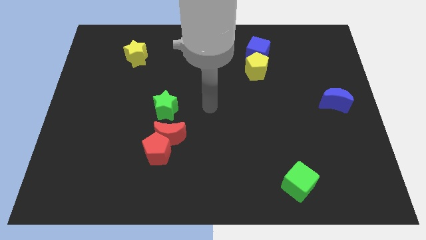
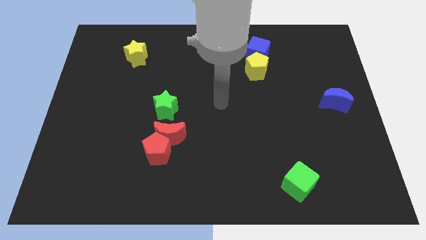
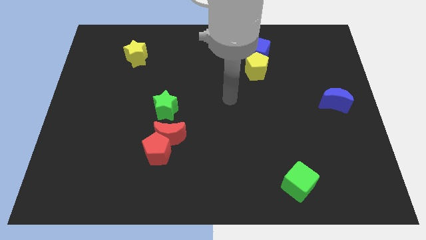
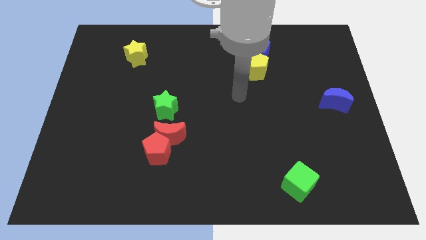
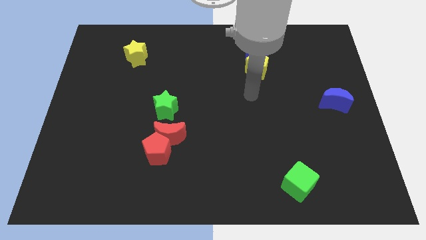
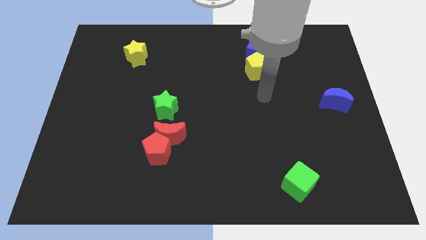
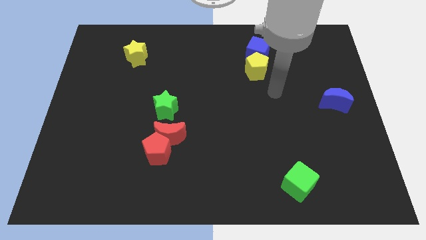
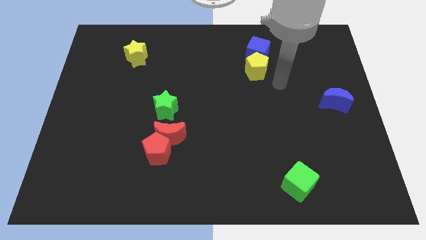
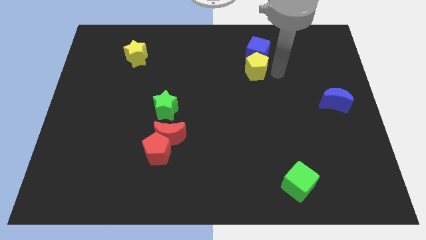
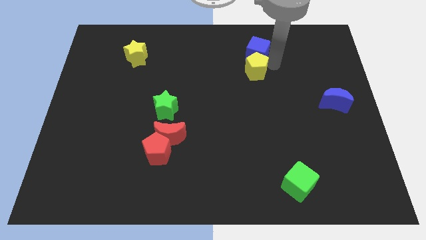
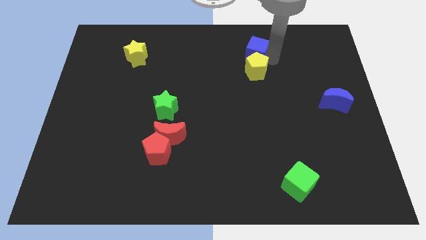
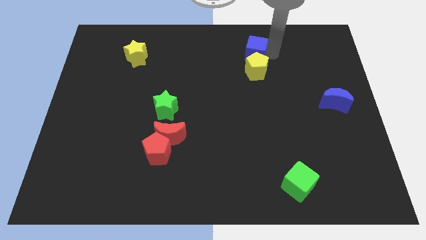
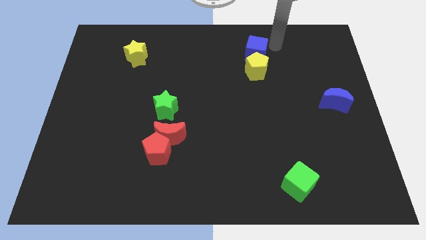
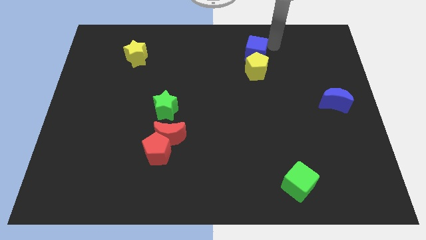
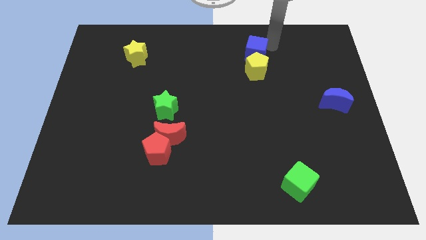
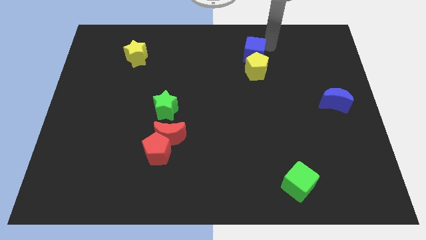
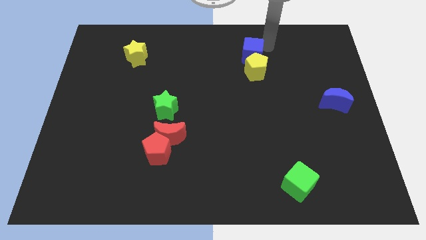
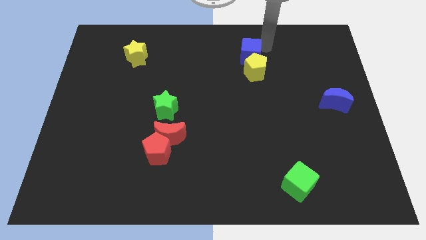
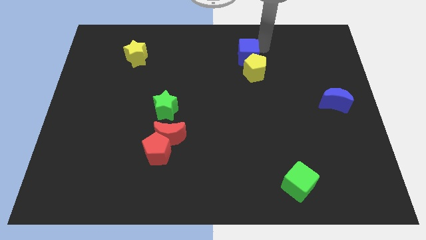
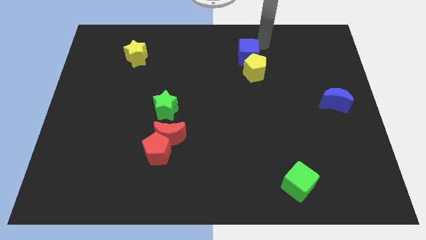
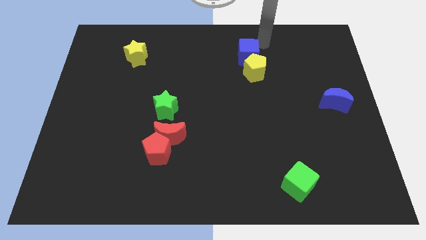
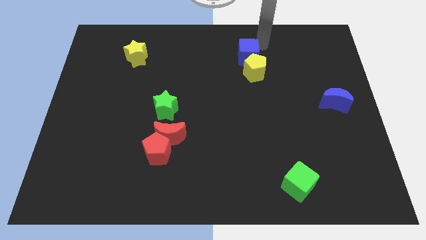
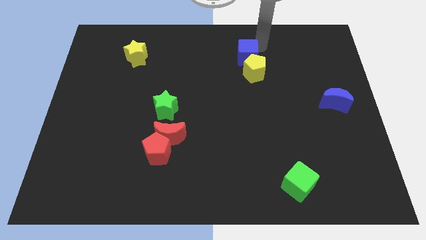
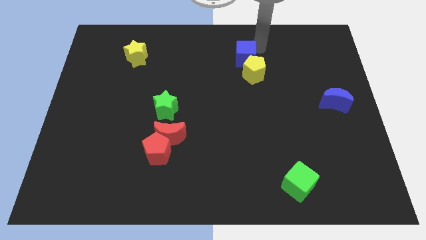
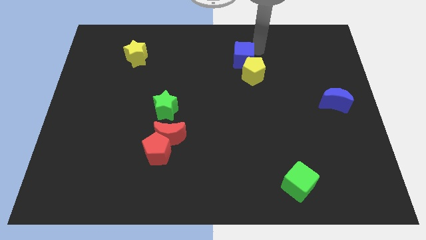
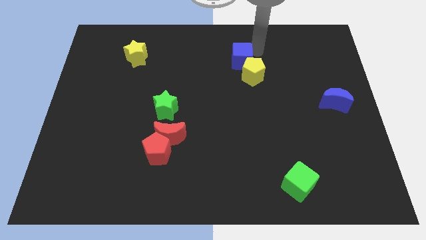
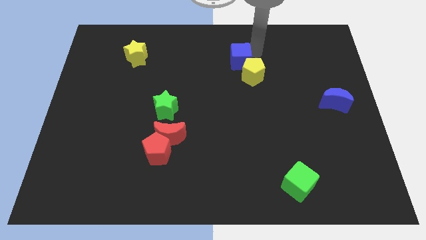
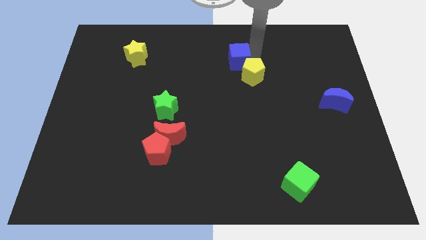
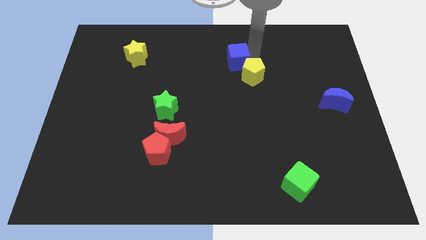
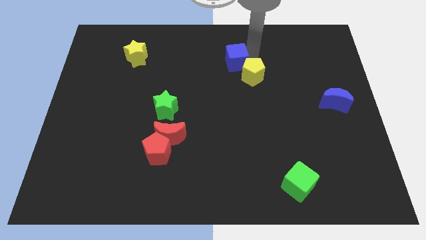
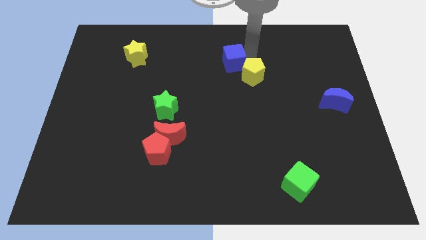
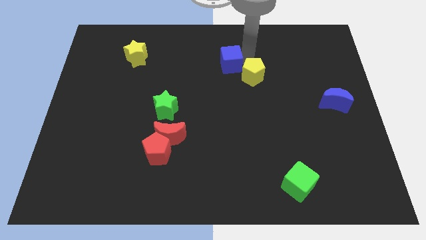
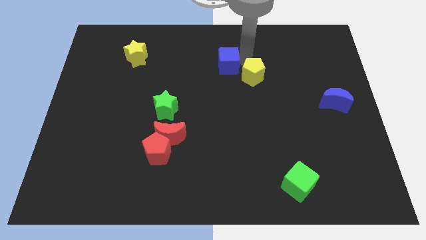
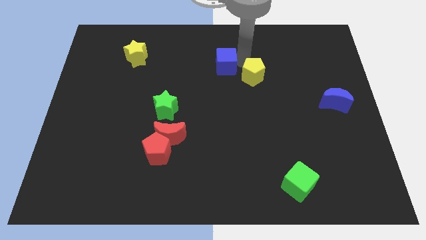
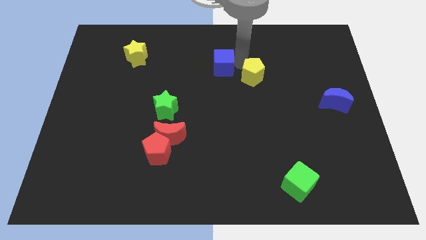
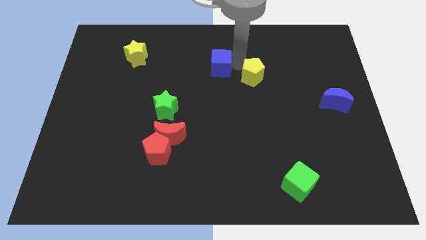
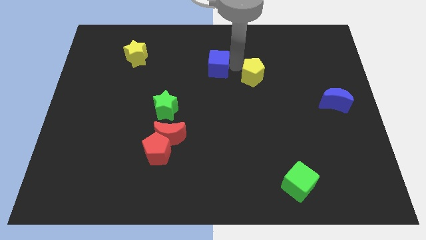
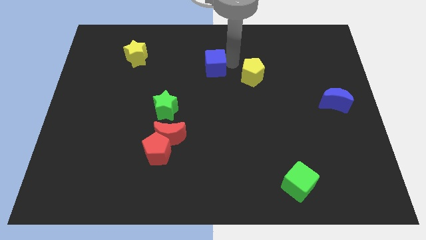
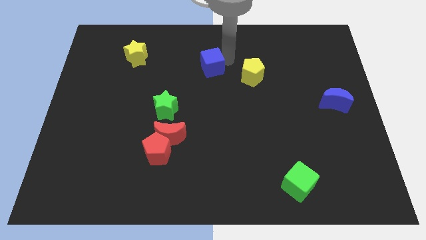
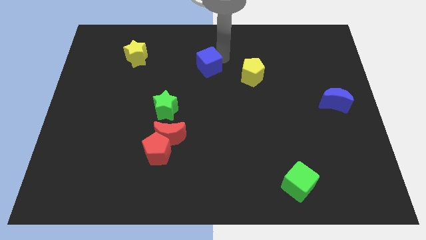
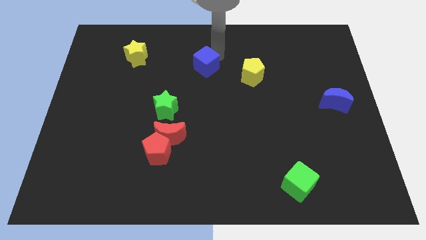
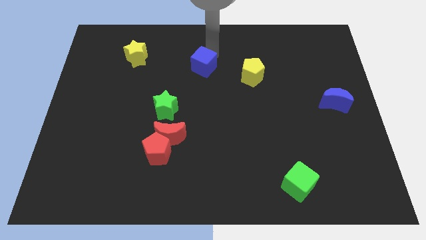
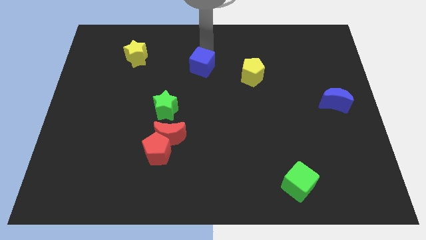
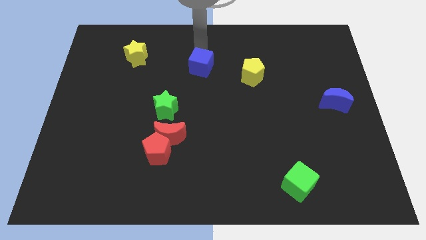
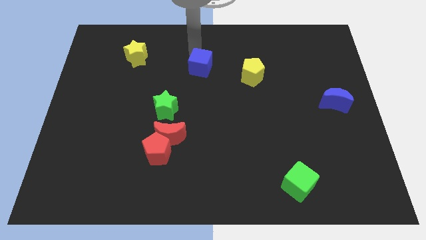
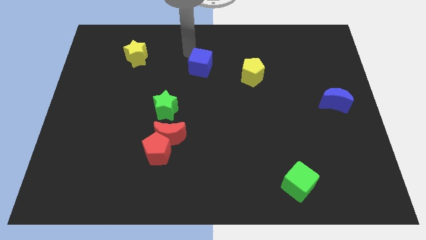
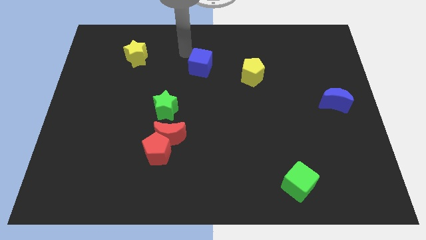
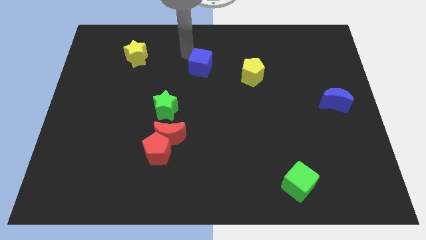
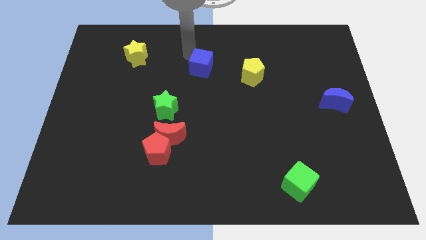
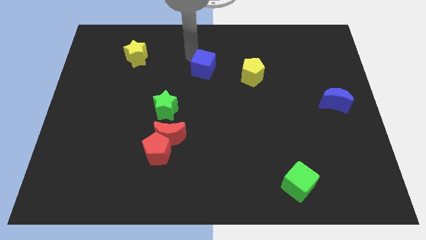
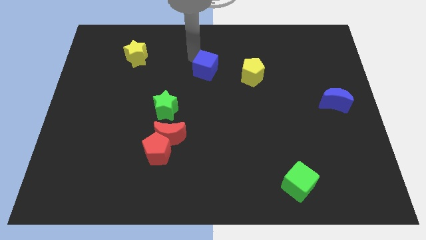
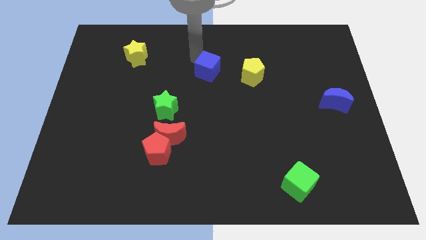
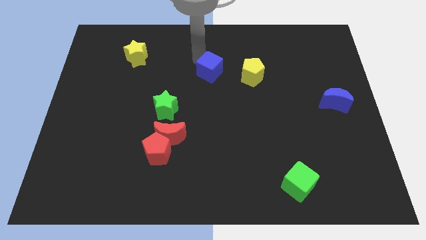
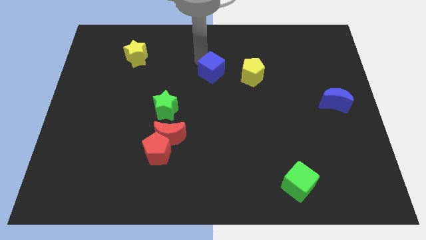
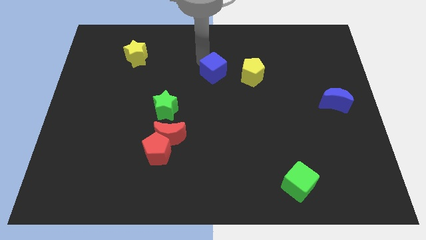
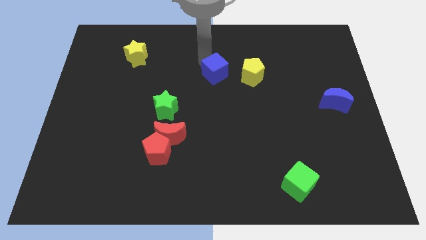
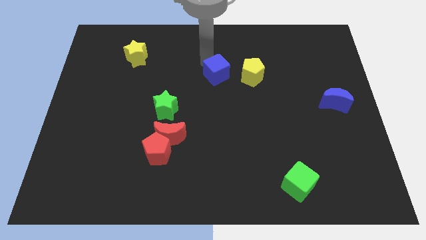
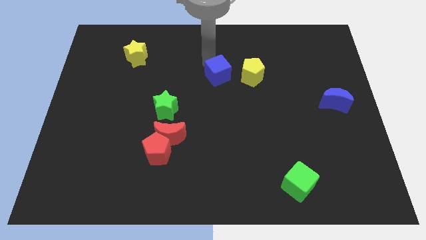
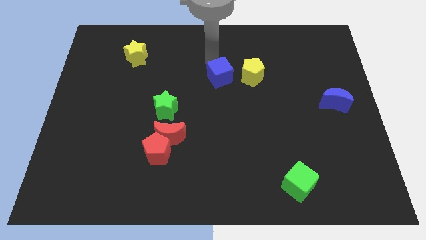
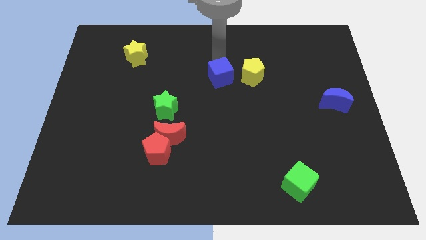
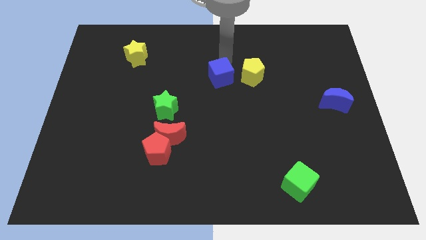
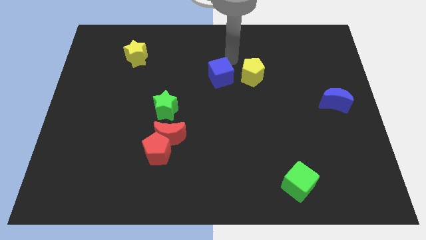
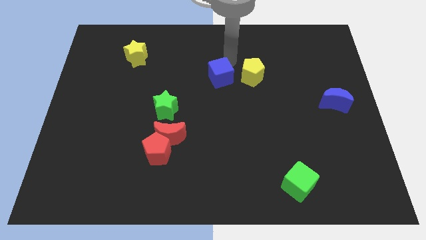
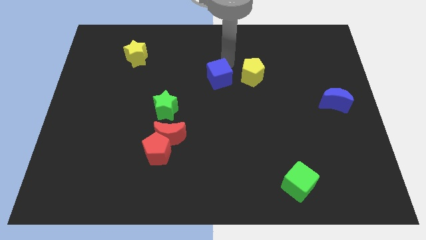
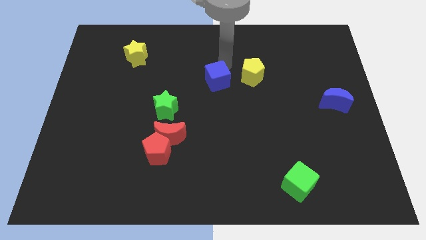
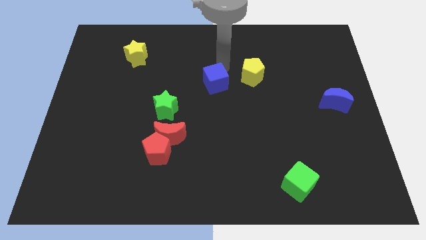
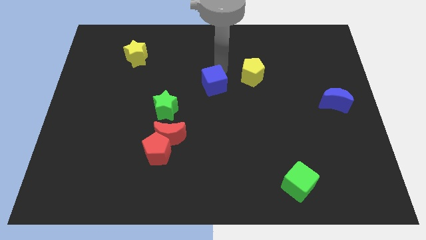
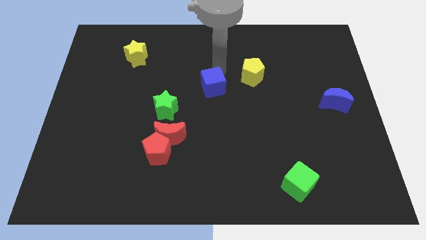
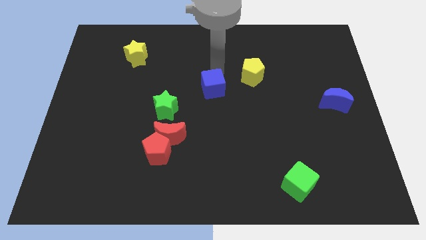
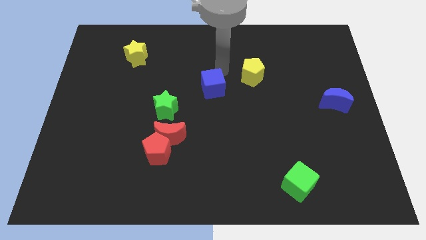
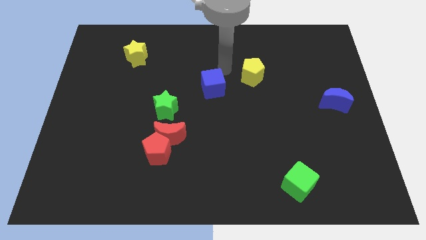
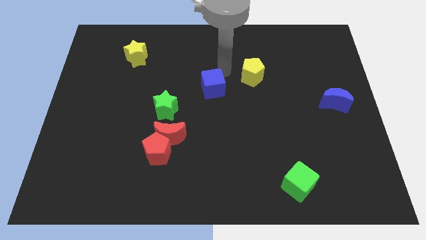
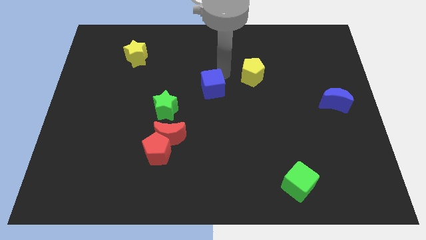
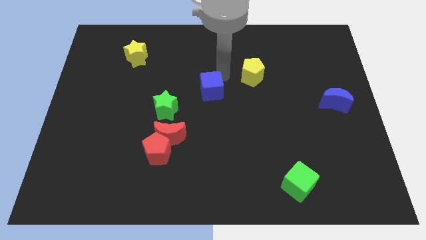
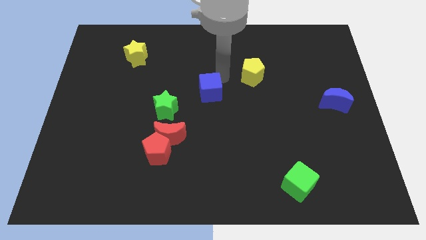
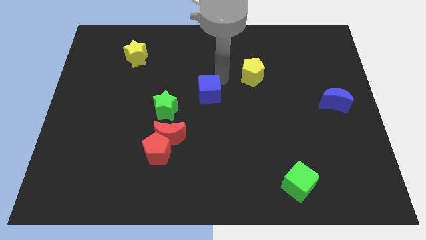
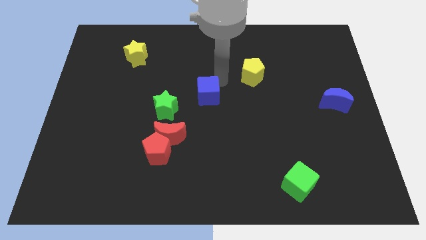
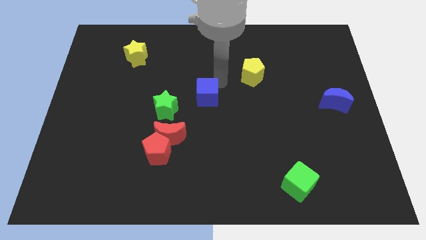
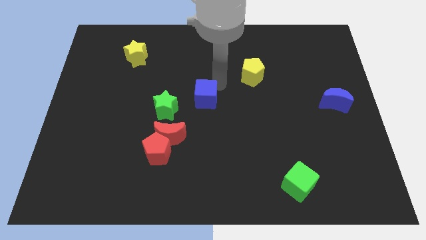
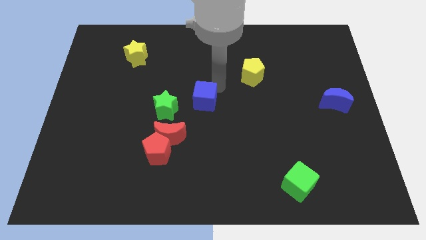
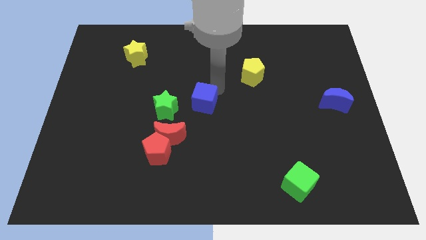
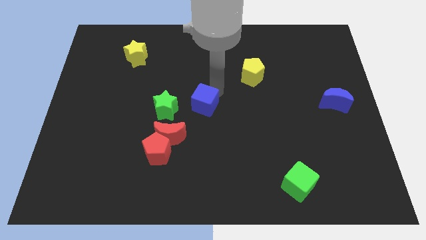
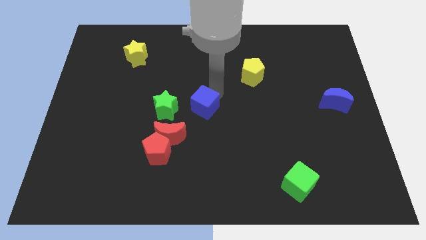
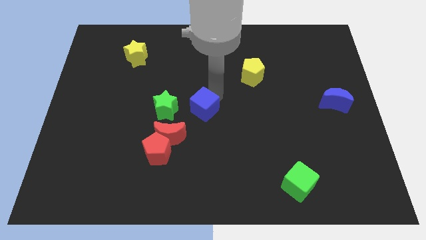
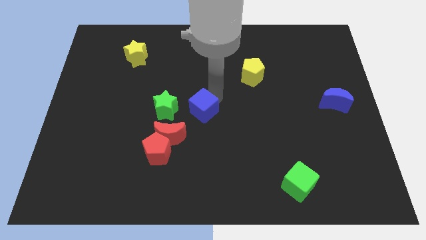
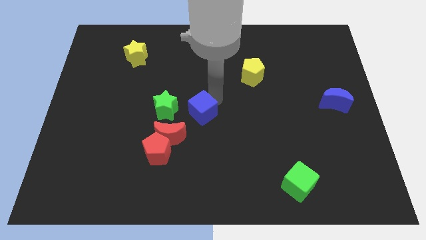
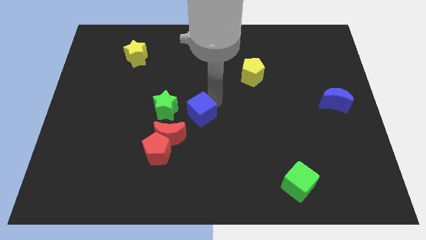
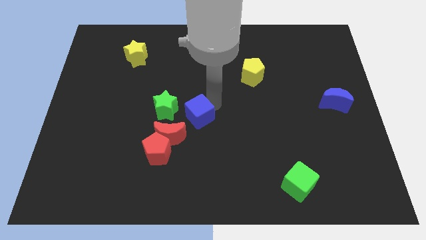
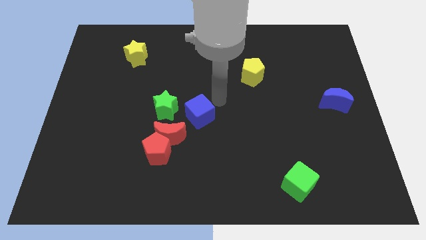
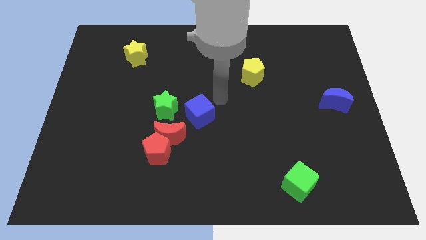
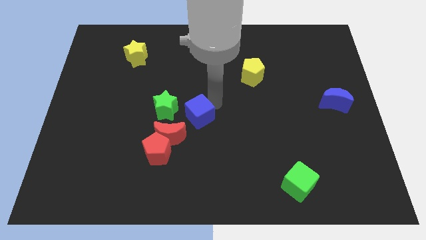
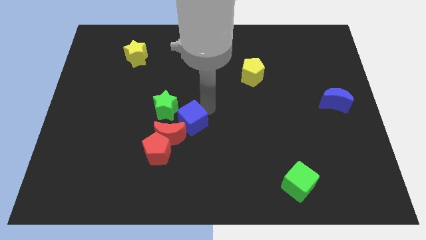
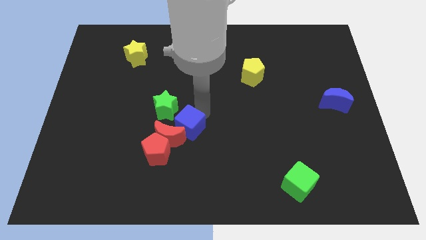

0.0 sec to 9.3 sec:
put the blue cube next to the red moon
